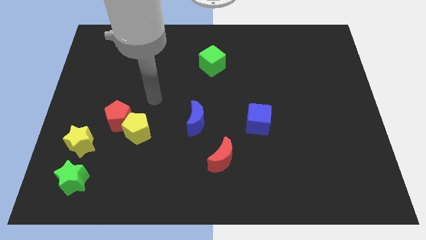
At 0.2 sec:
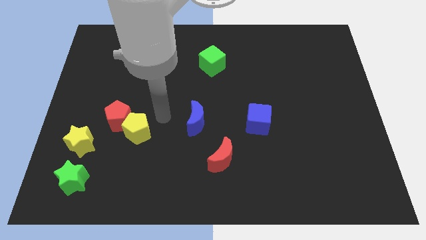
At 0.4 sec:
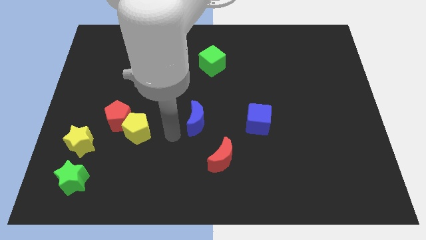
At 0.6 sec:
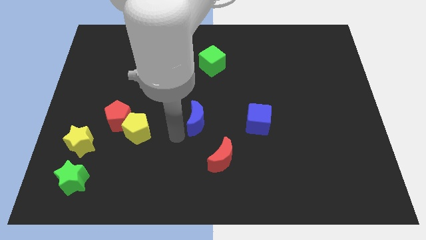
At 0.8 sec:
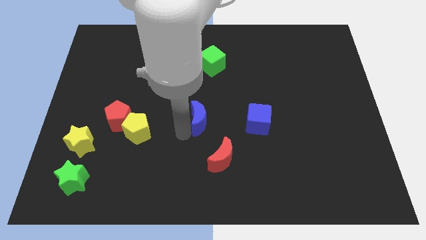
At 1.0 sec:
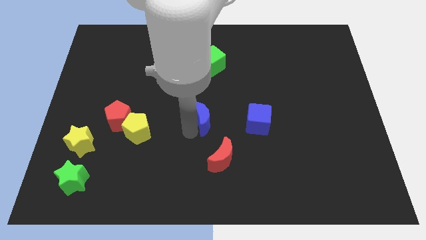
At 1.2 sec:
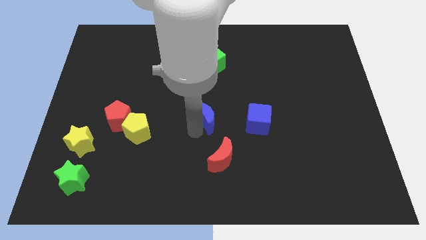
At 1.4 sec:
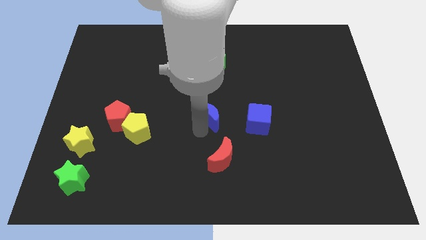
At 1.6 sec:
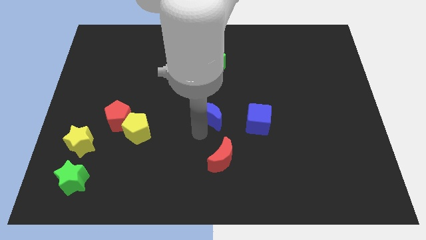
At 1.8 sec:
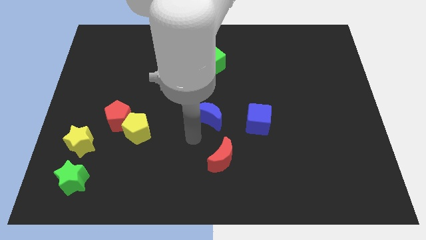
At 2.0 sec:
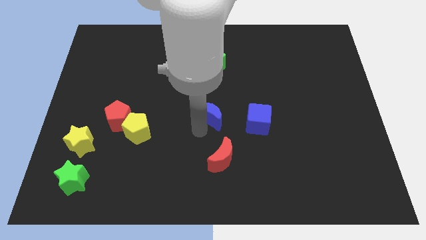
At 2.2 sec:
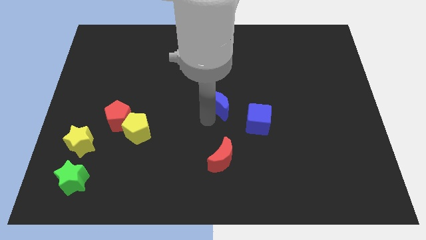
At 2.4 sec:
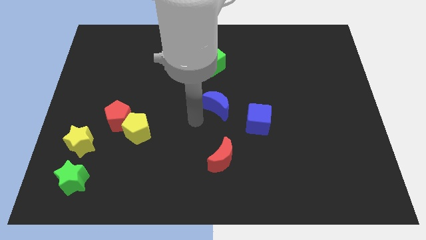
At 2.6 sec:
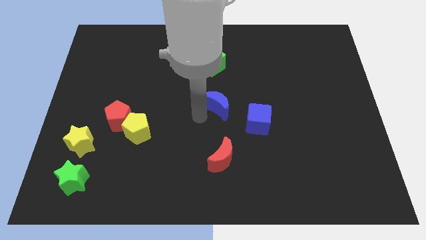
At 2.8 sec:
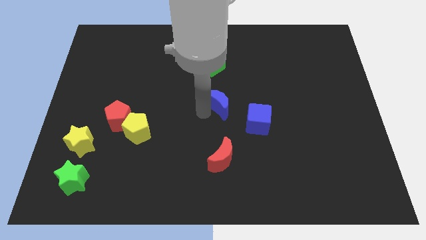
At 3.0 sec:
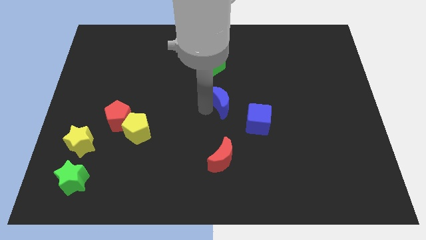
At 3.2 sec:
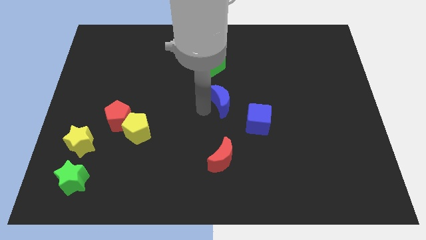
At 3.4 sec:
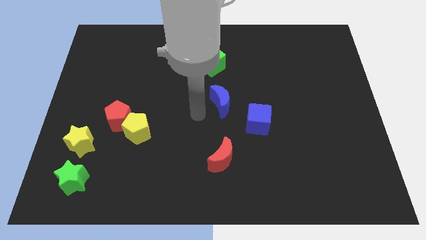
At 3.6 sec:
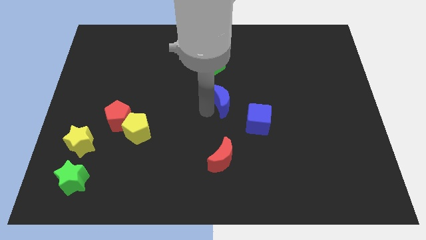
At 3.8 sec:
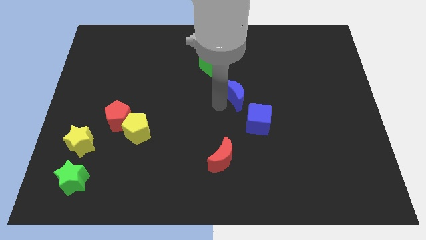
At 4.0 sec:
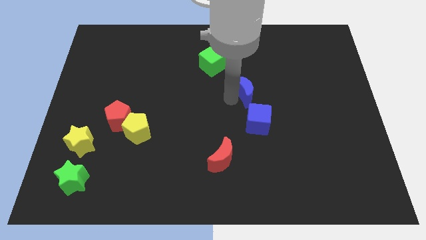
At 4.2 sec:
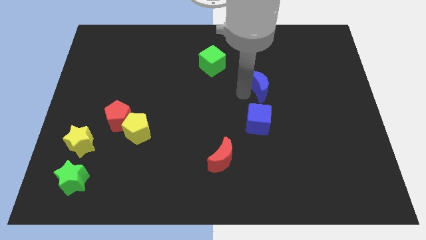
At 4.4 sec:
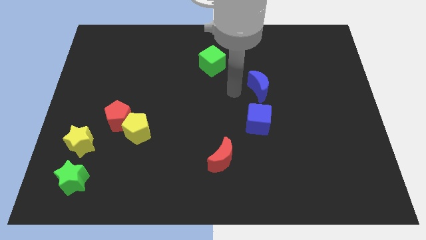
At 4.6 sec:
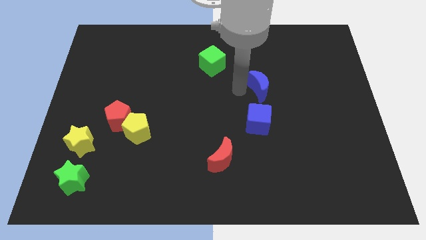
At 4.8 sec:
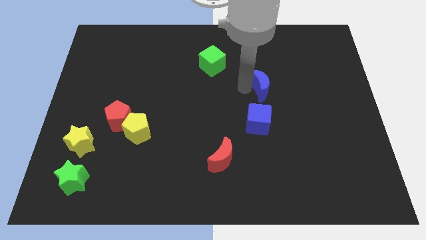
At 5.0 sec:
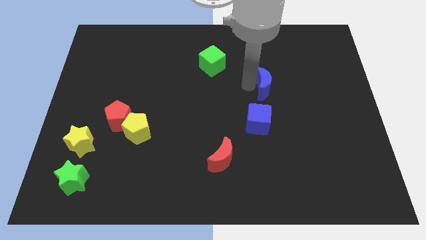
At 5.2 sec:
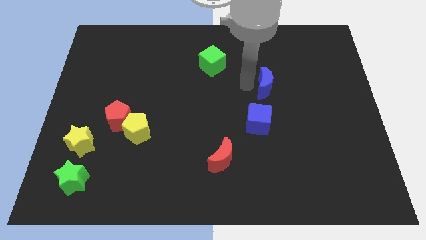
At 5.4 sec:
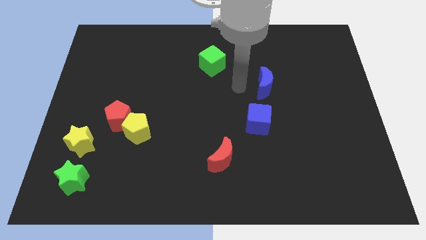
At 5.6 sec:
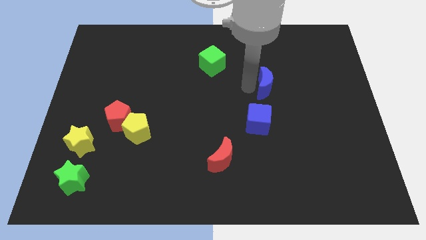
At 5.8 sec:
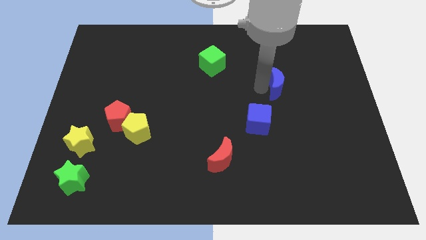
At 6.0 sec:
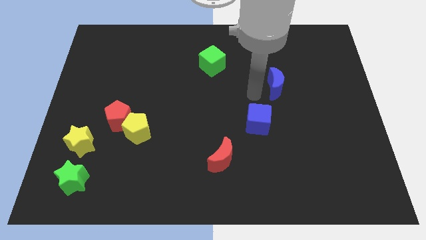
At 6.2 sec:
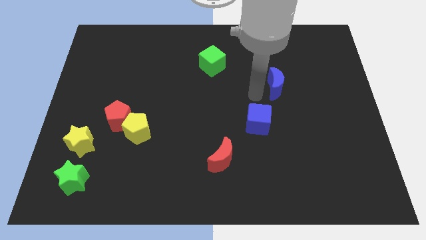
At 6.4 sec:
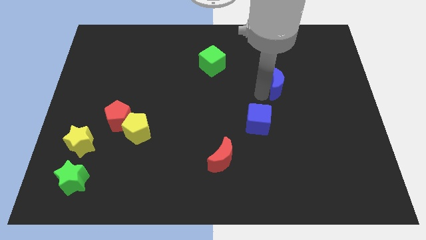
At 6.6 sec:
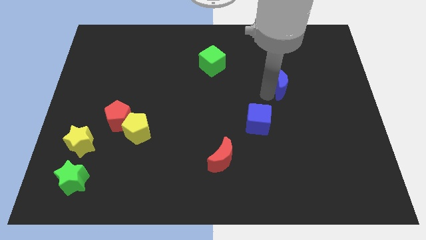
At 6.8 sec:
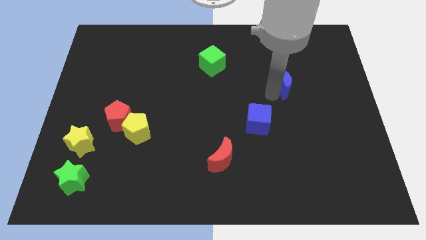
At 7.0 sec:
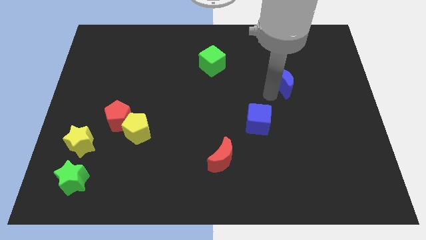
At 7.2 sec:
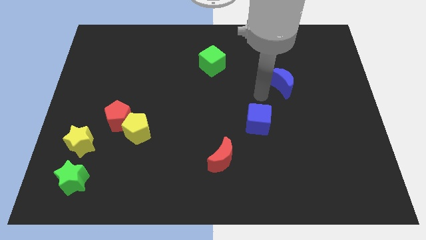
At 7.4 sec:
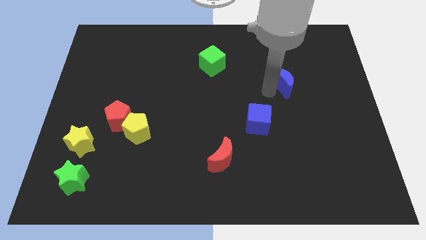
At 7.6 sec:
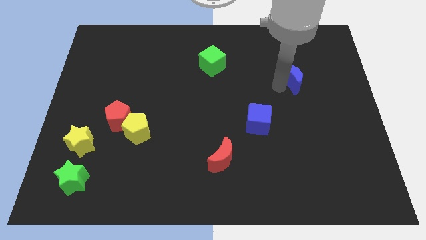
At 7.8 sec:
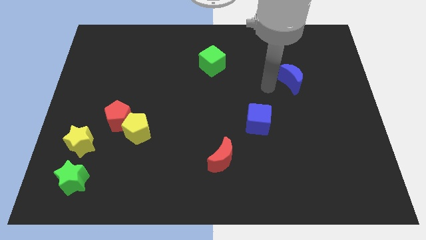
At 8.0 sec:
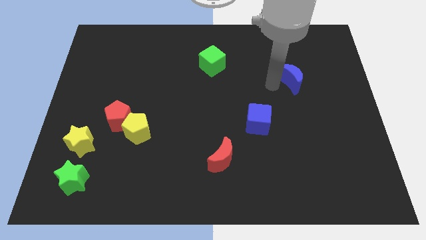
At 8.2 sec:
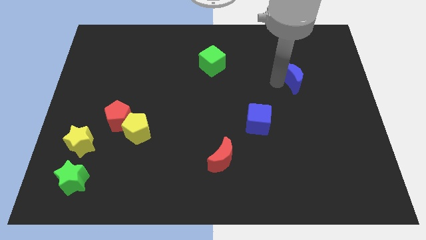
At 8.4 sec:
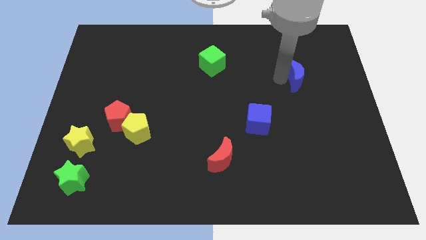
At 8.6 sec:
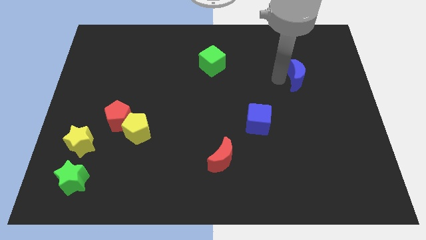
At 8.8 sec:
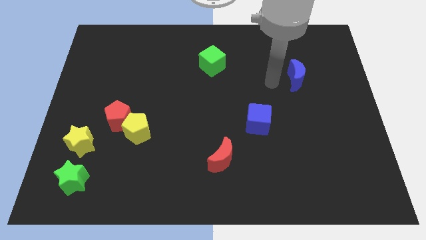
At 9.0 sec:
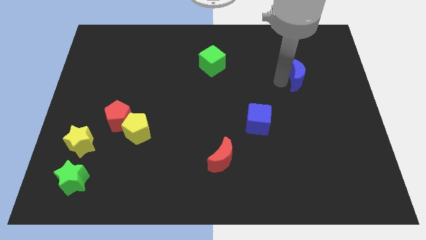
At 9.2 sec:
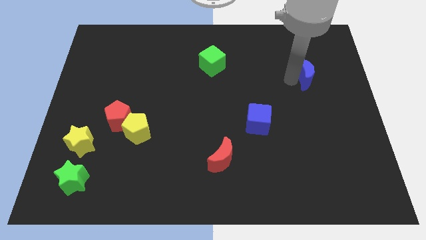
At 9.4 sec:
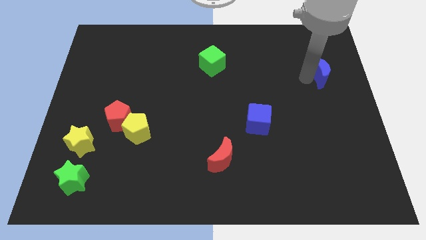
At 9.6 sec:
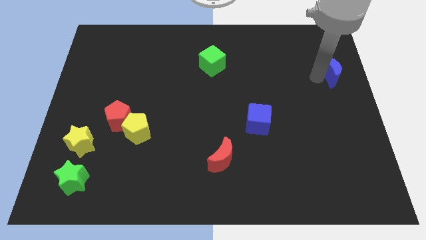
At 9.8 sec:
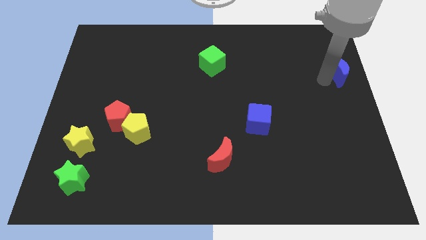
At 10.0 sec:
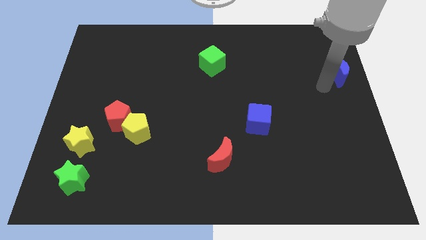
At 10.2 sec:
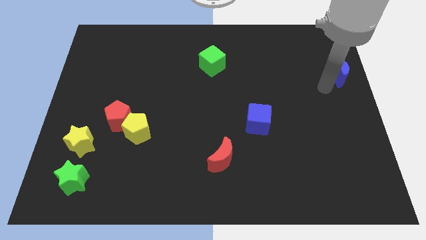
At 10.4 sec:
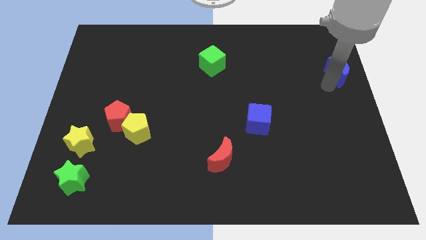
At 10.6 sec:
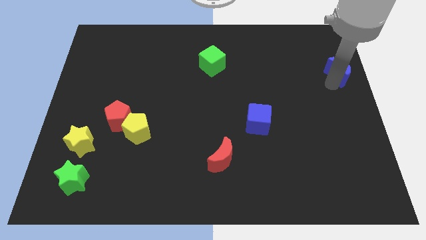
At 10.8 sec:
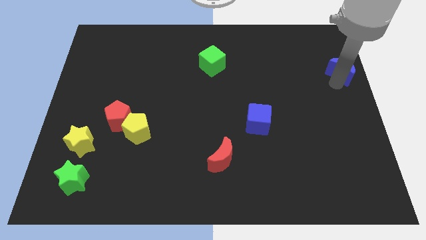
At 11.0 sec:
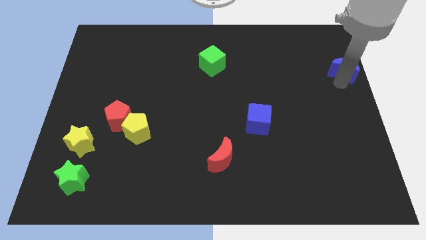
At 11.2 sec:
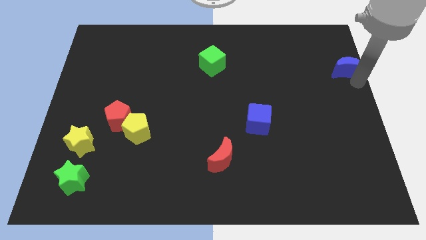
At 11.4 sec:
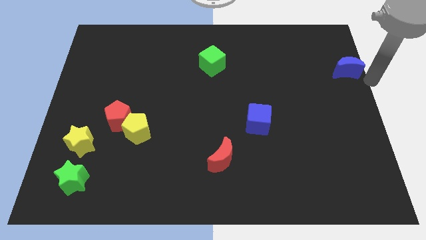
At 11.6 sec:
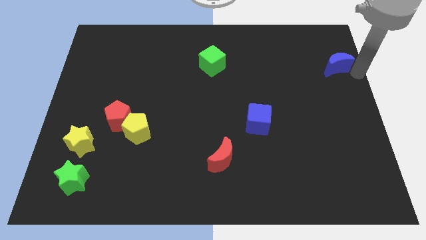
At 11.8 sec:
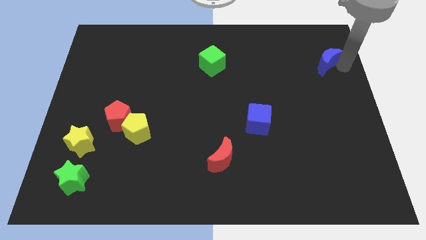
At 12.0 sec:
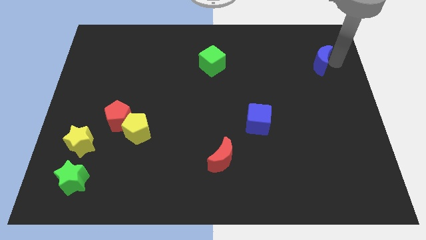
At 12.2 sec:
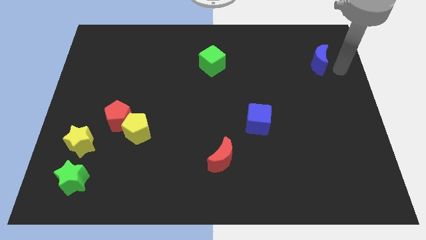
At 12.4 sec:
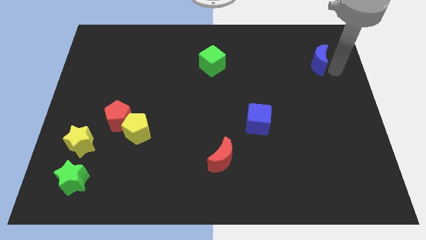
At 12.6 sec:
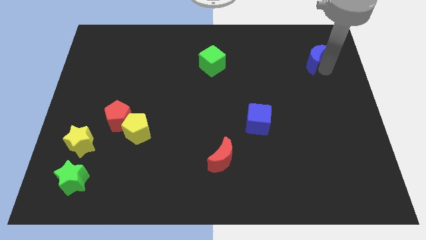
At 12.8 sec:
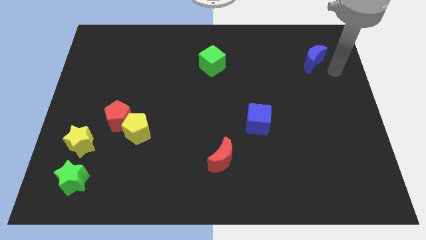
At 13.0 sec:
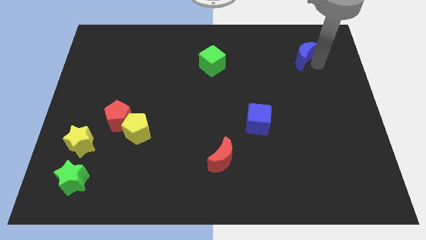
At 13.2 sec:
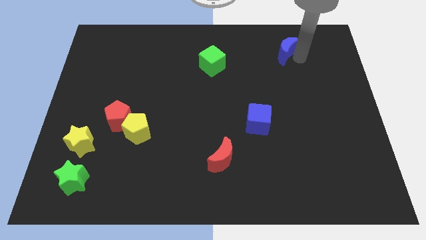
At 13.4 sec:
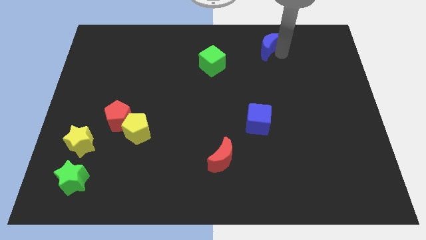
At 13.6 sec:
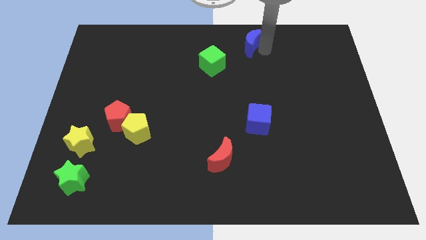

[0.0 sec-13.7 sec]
slide the blue moon to the top
